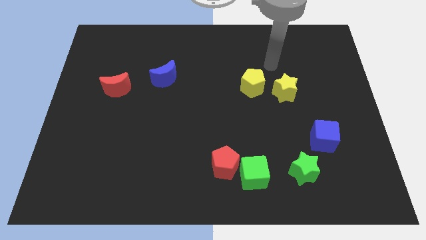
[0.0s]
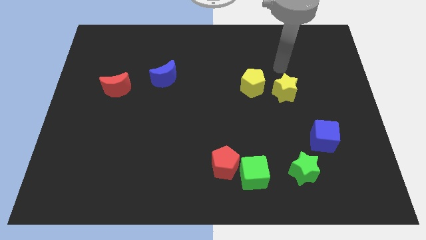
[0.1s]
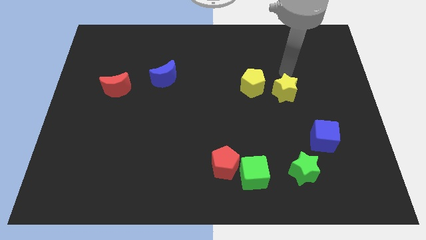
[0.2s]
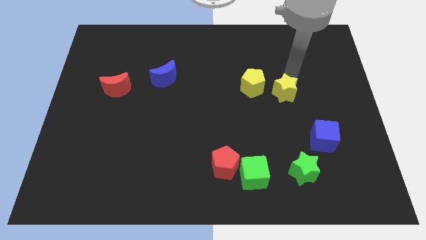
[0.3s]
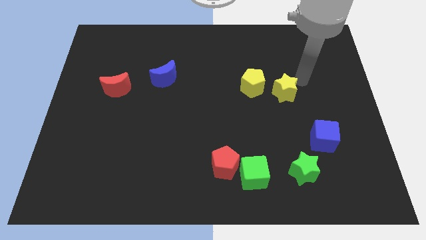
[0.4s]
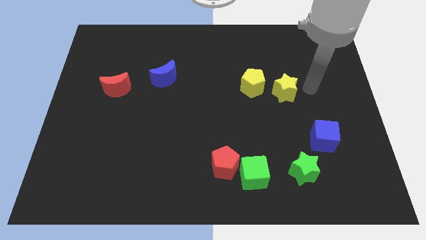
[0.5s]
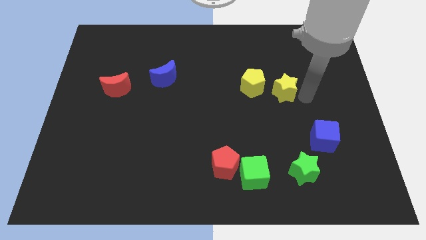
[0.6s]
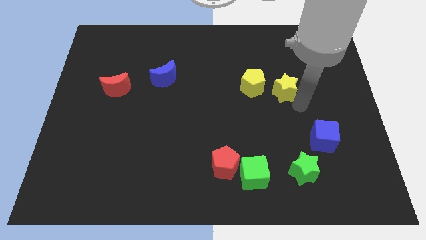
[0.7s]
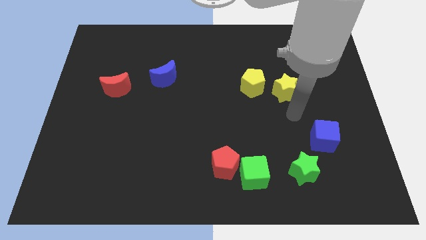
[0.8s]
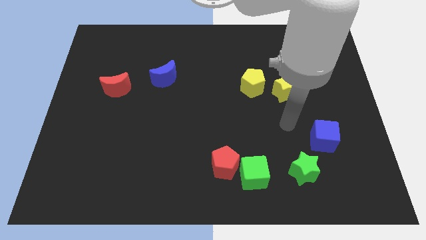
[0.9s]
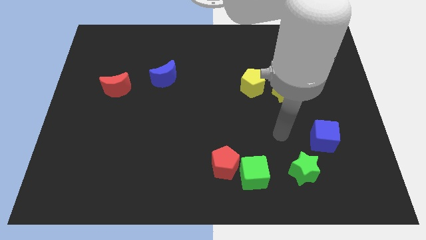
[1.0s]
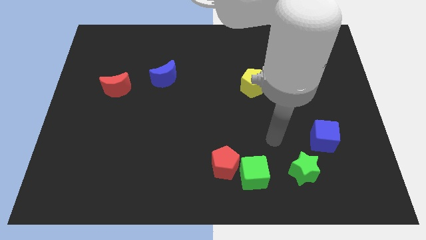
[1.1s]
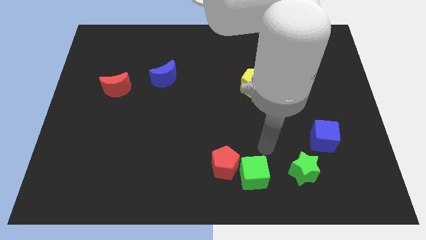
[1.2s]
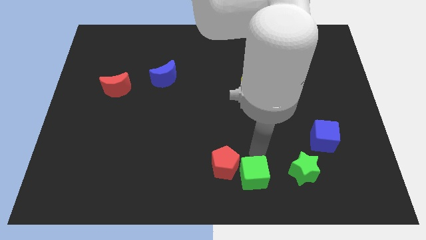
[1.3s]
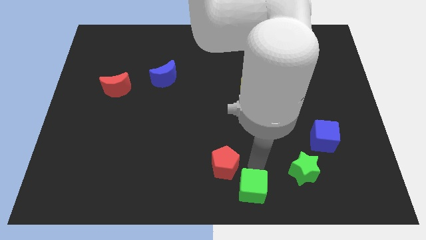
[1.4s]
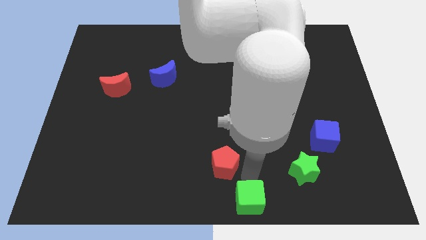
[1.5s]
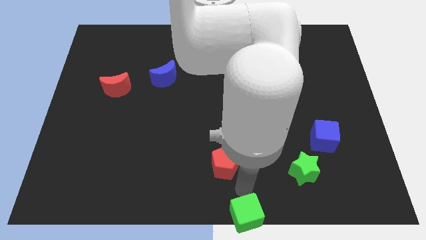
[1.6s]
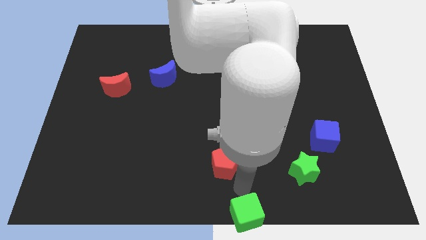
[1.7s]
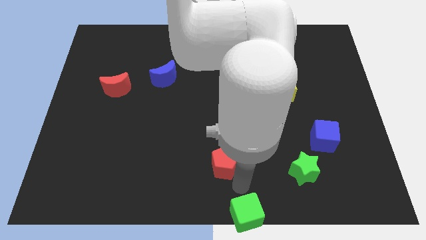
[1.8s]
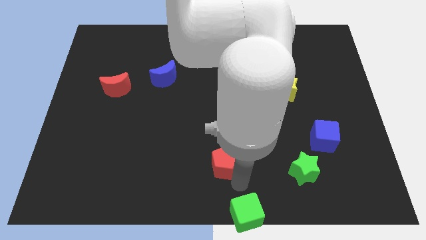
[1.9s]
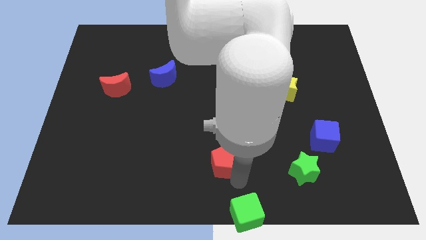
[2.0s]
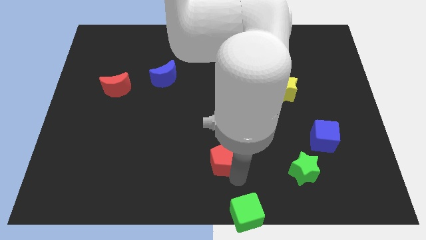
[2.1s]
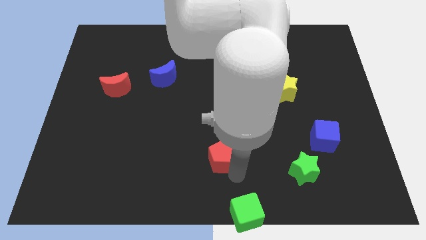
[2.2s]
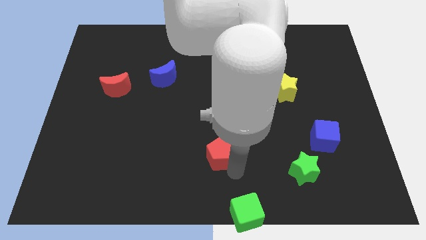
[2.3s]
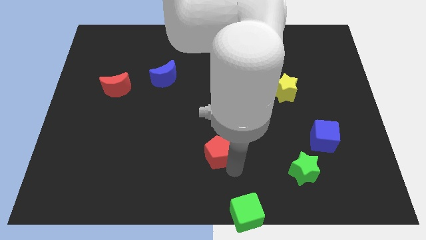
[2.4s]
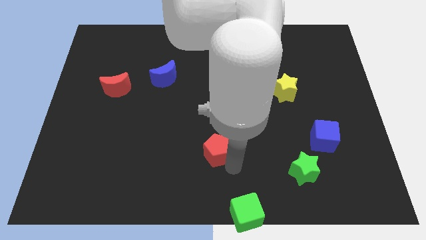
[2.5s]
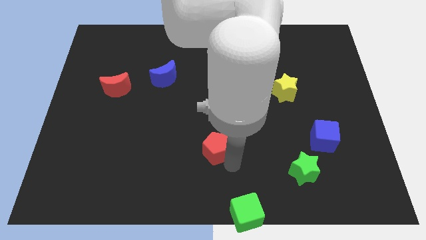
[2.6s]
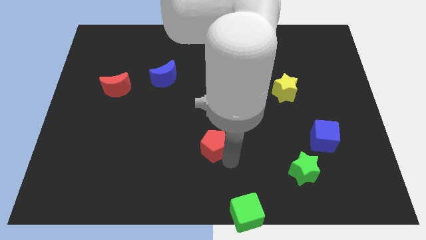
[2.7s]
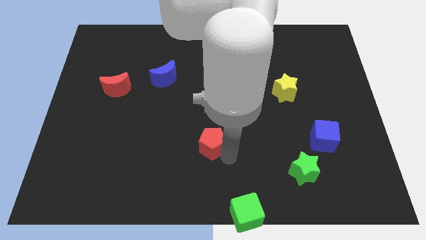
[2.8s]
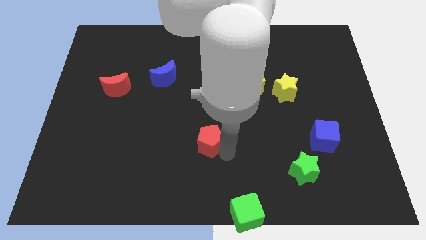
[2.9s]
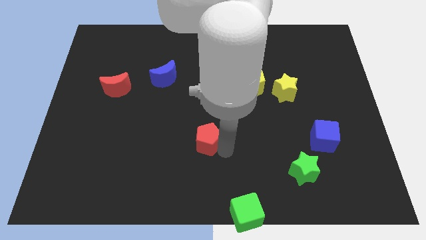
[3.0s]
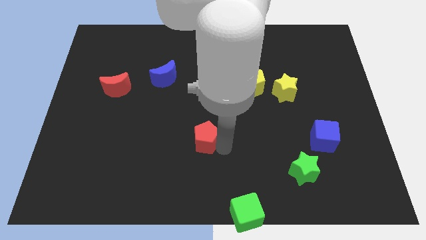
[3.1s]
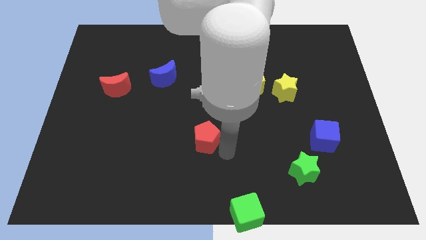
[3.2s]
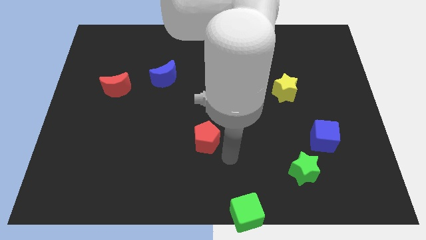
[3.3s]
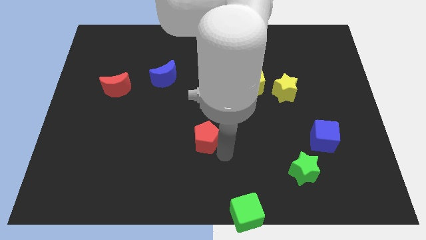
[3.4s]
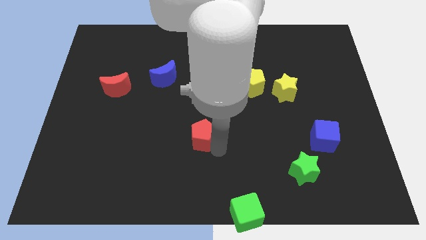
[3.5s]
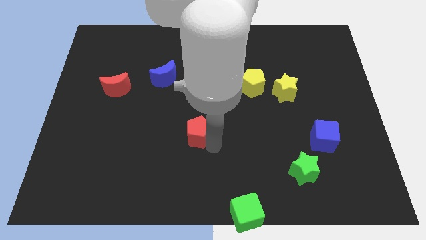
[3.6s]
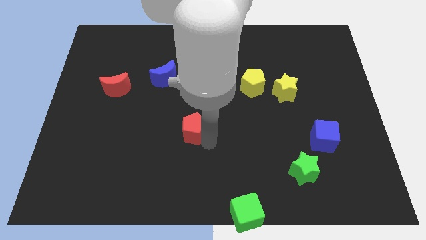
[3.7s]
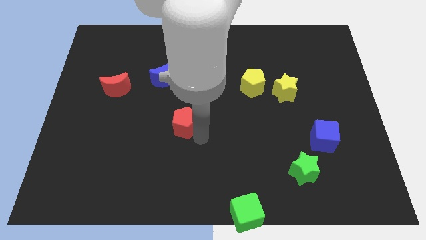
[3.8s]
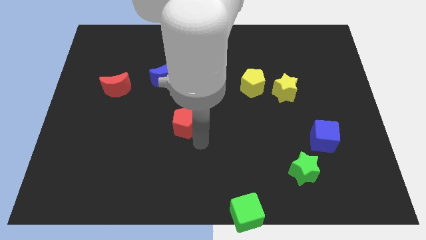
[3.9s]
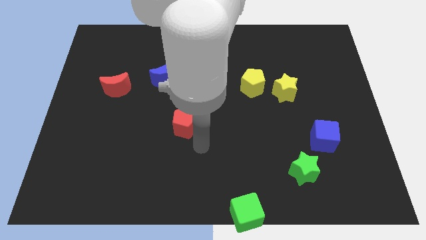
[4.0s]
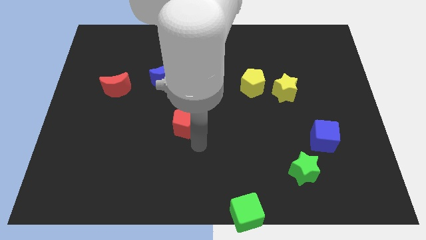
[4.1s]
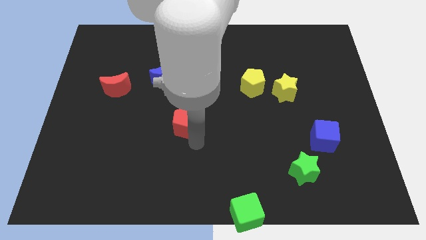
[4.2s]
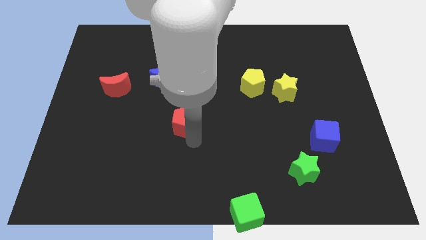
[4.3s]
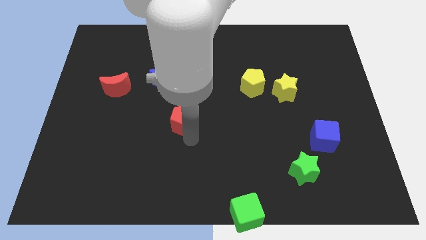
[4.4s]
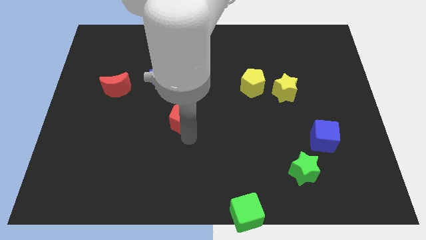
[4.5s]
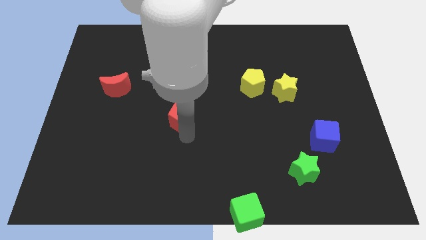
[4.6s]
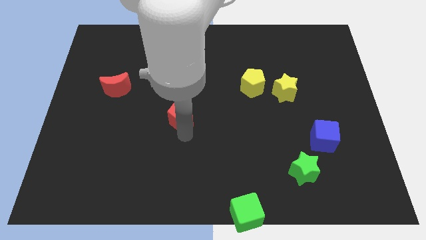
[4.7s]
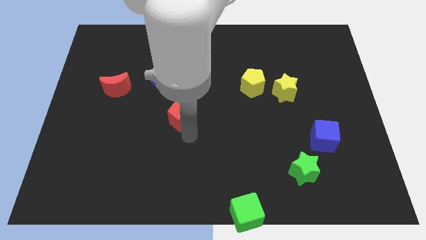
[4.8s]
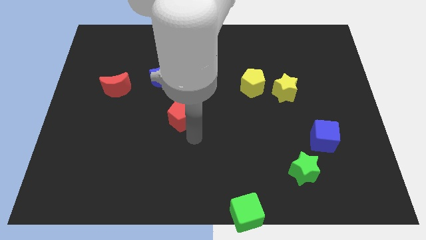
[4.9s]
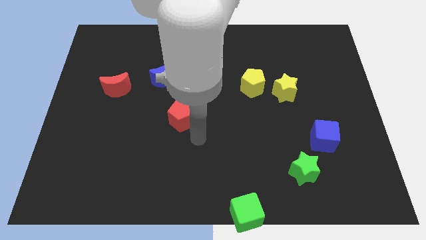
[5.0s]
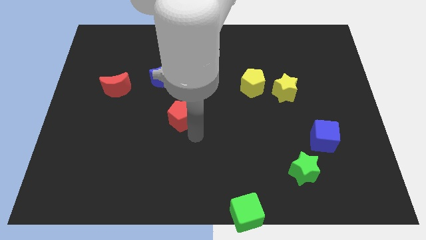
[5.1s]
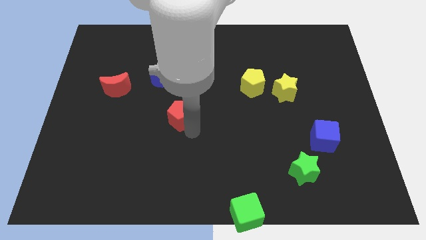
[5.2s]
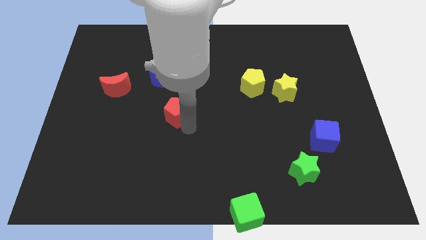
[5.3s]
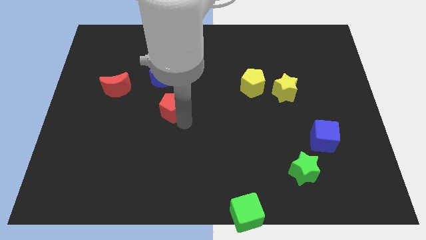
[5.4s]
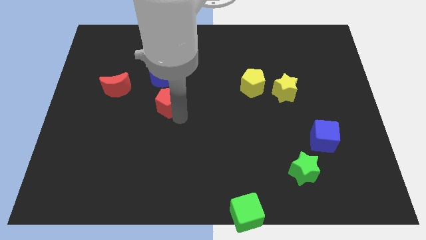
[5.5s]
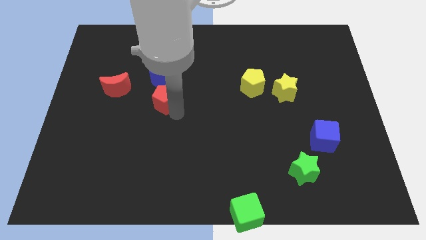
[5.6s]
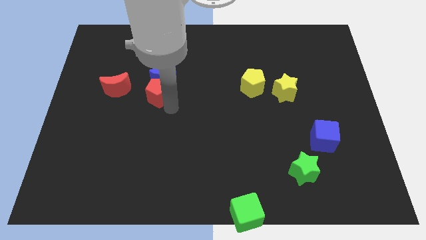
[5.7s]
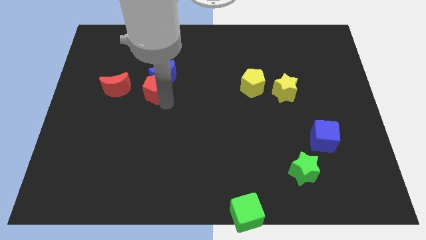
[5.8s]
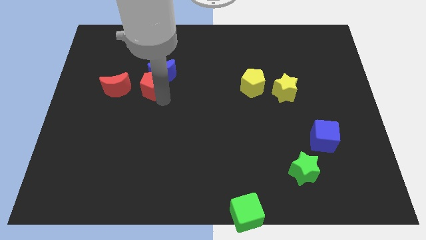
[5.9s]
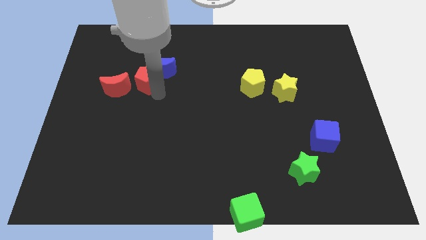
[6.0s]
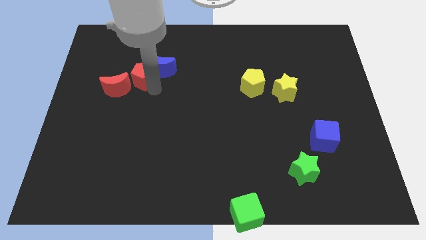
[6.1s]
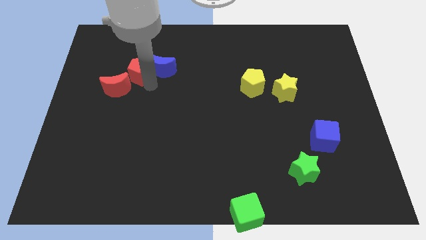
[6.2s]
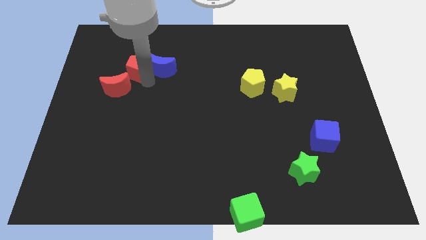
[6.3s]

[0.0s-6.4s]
put the red pentagon to the top side of the red moon
